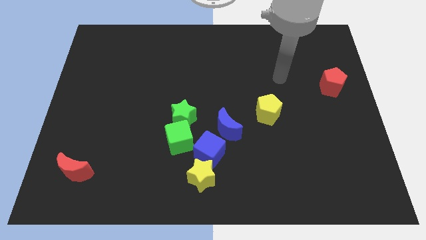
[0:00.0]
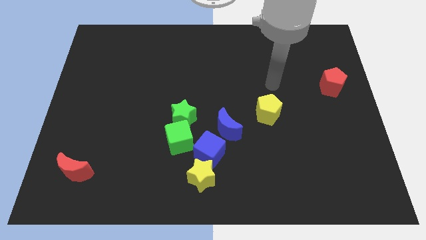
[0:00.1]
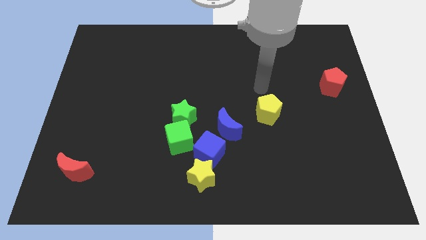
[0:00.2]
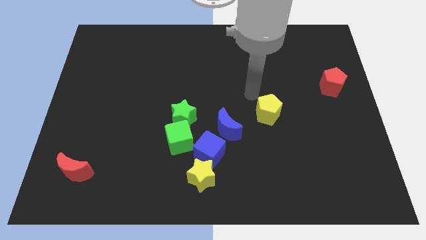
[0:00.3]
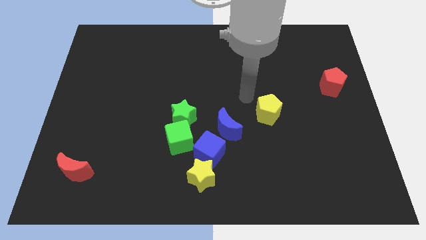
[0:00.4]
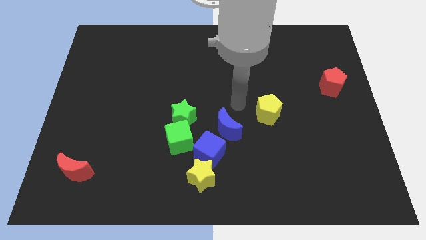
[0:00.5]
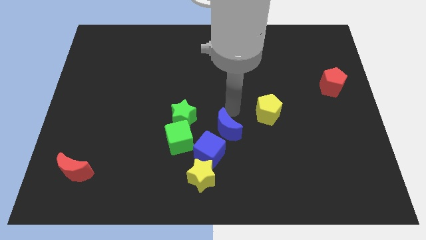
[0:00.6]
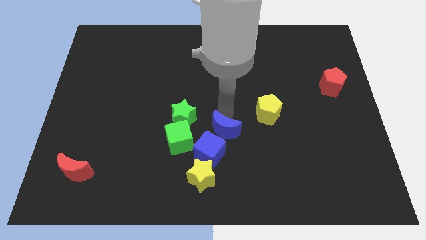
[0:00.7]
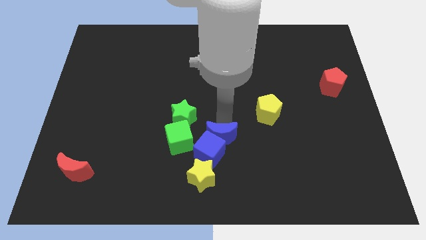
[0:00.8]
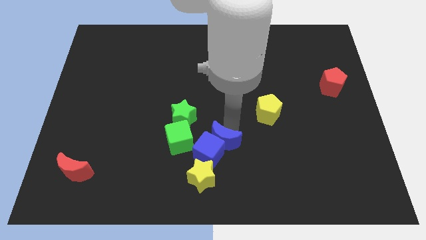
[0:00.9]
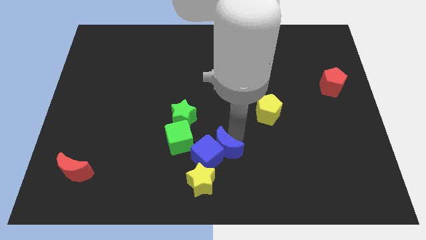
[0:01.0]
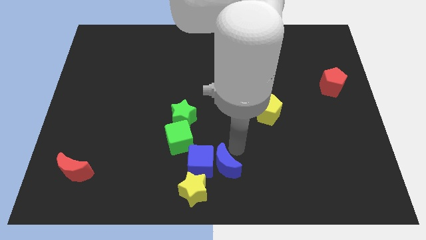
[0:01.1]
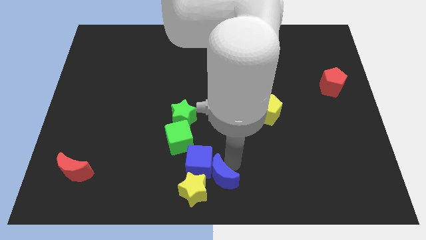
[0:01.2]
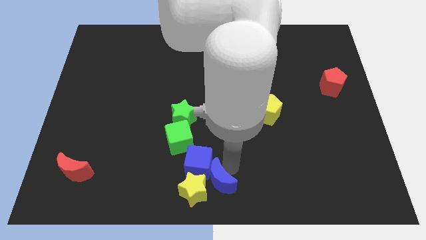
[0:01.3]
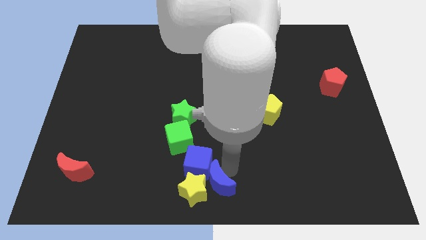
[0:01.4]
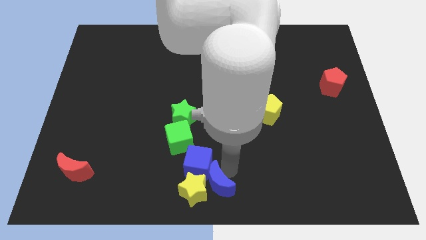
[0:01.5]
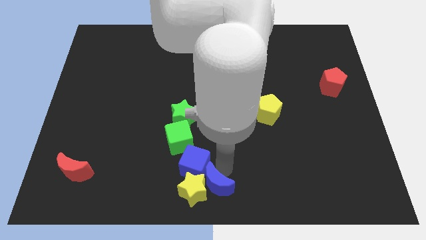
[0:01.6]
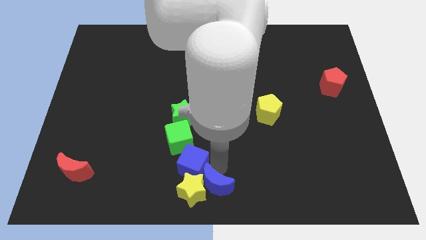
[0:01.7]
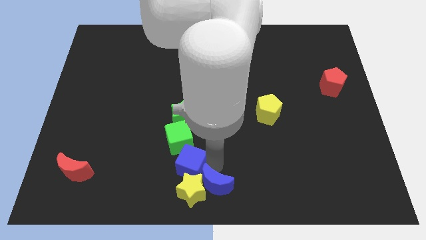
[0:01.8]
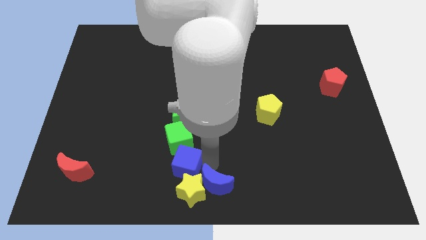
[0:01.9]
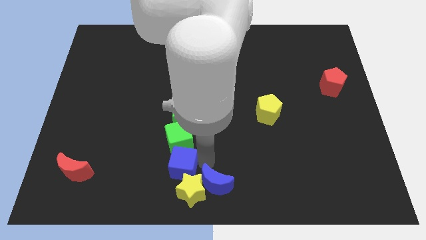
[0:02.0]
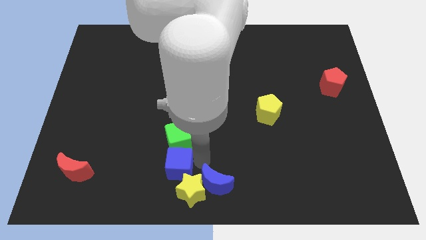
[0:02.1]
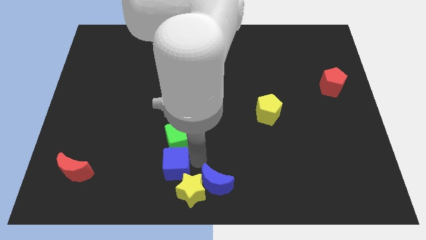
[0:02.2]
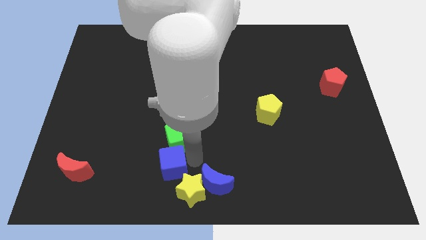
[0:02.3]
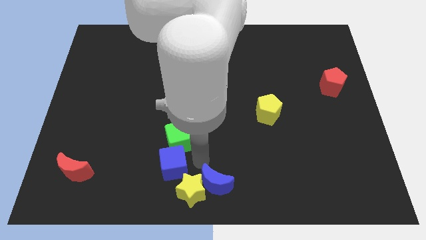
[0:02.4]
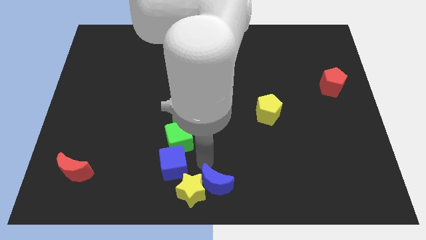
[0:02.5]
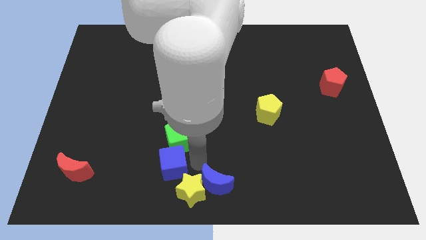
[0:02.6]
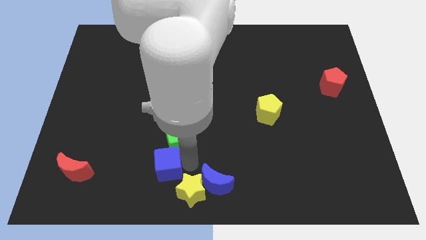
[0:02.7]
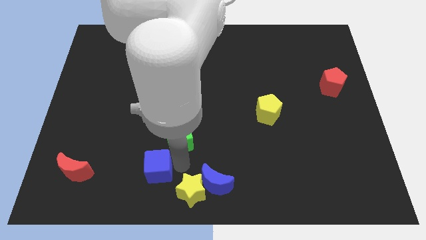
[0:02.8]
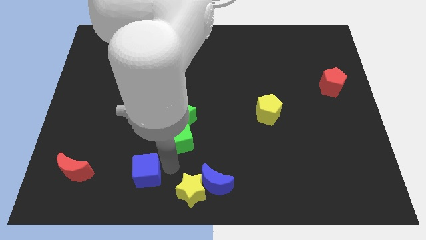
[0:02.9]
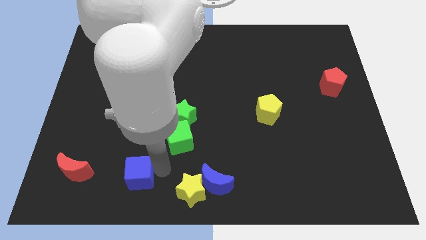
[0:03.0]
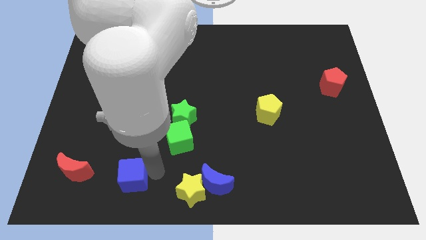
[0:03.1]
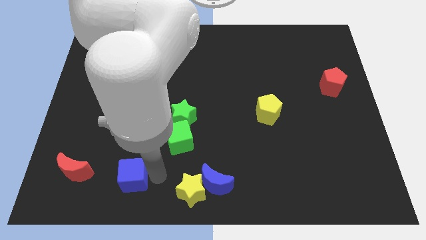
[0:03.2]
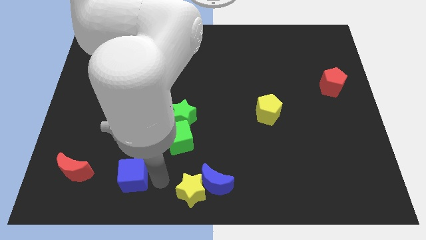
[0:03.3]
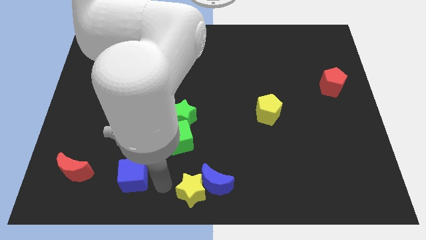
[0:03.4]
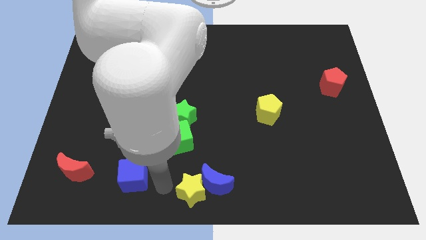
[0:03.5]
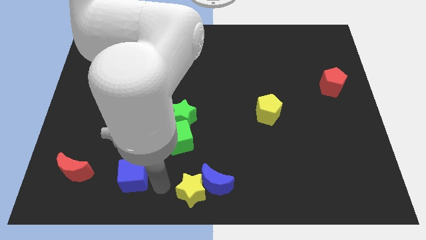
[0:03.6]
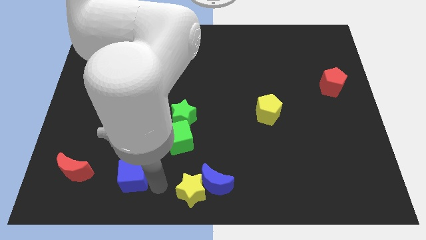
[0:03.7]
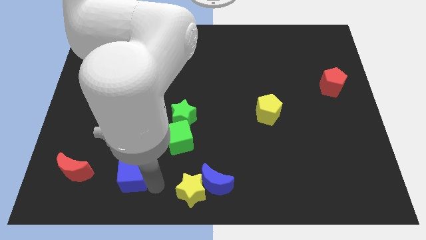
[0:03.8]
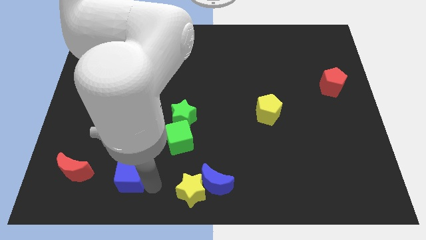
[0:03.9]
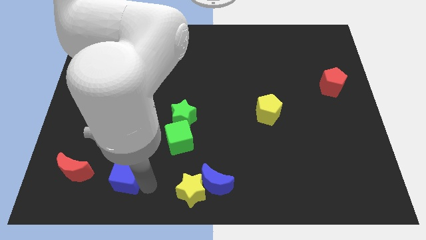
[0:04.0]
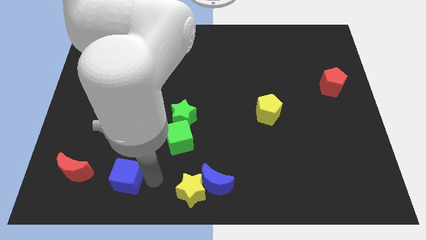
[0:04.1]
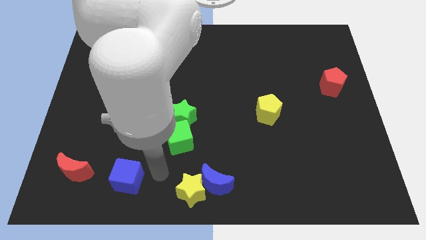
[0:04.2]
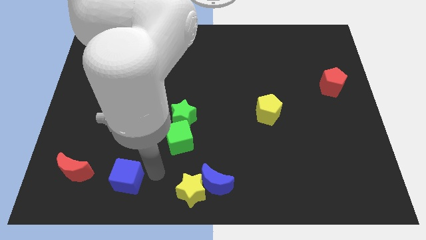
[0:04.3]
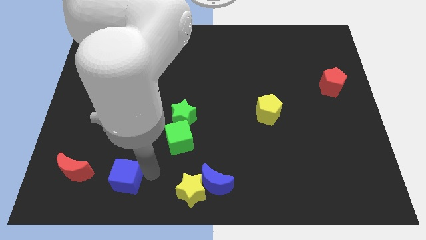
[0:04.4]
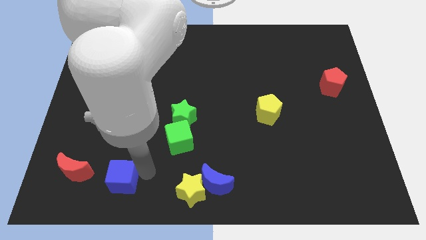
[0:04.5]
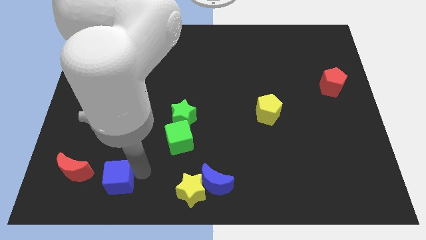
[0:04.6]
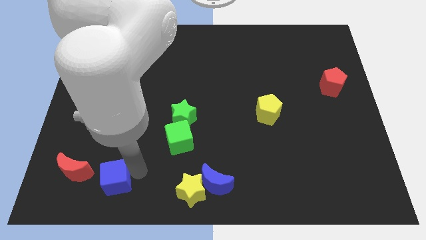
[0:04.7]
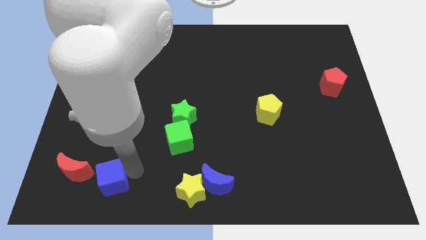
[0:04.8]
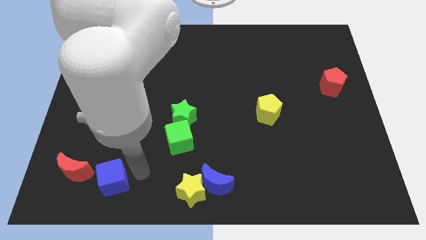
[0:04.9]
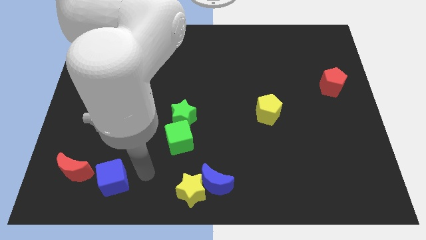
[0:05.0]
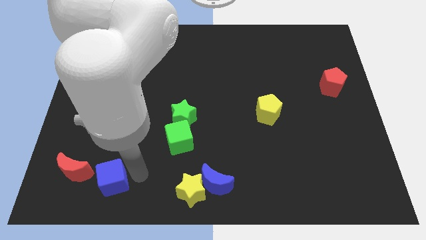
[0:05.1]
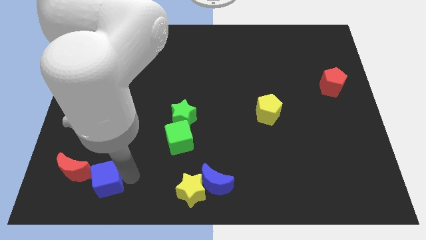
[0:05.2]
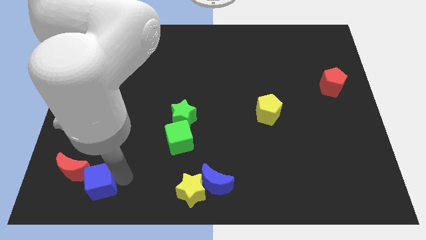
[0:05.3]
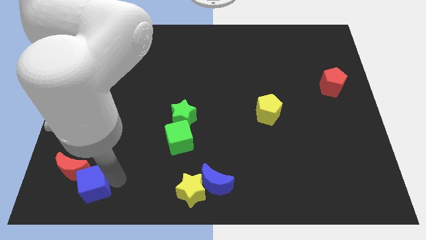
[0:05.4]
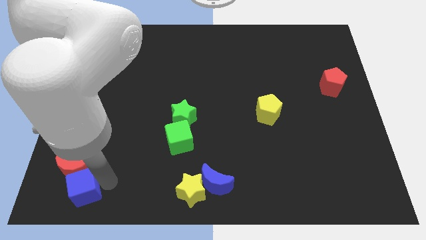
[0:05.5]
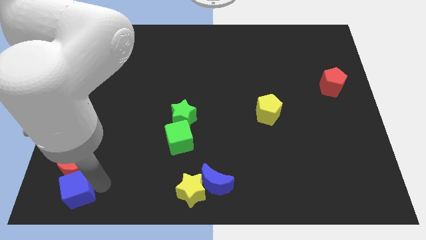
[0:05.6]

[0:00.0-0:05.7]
slide the blue cube to the lower left corner
